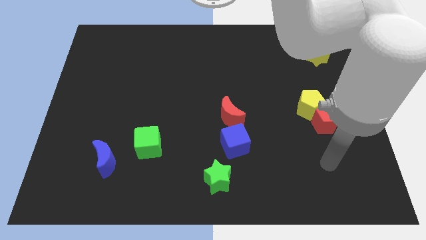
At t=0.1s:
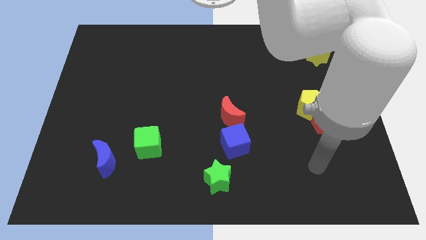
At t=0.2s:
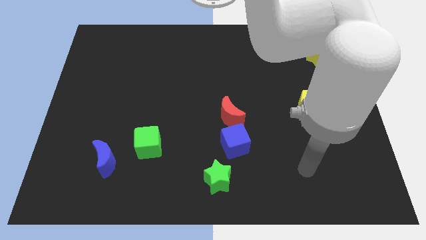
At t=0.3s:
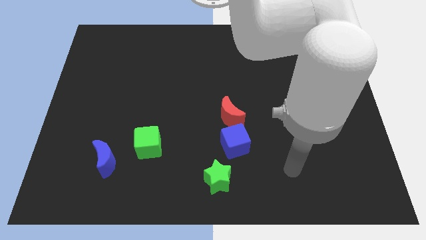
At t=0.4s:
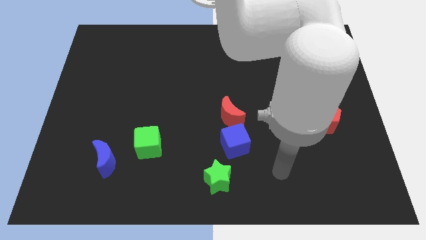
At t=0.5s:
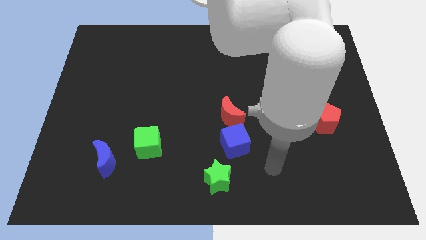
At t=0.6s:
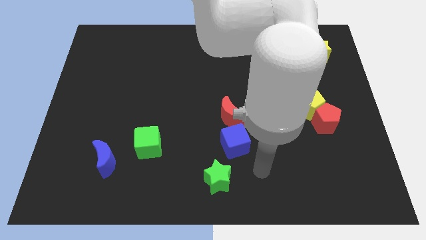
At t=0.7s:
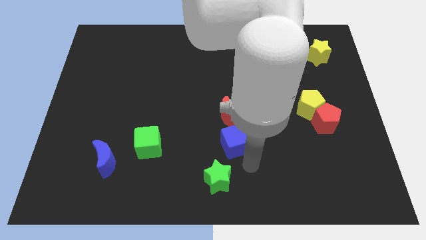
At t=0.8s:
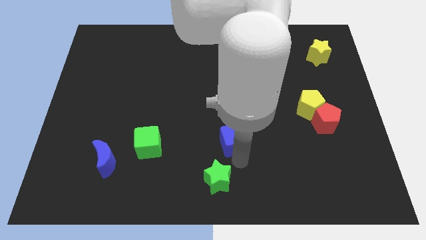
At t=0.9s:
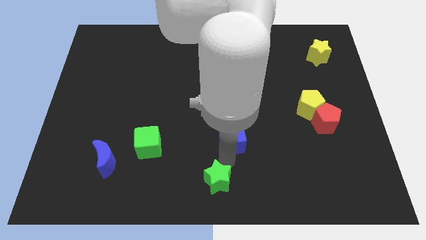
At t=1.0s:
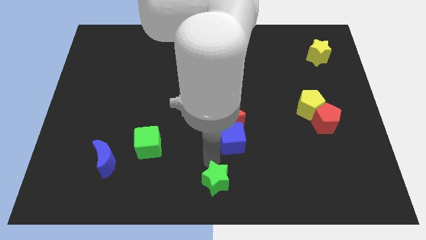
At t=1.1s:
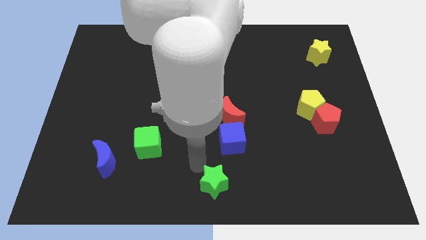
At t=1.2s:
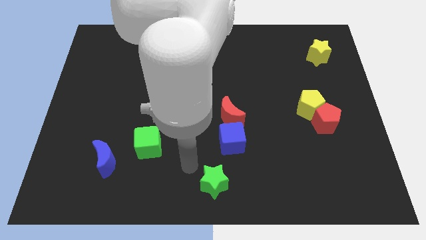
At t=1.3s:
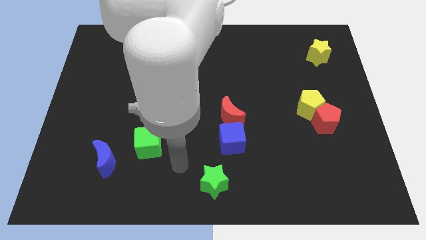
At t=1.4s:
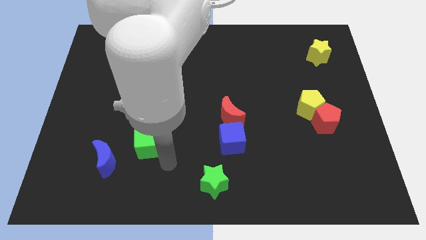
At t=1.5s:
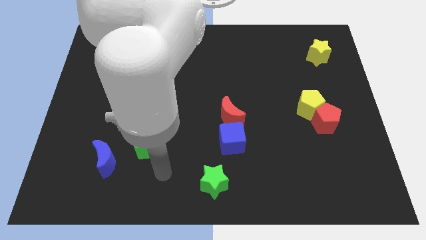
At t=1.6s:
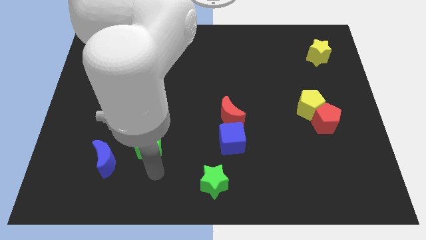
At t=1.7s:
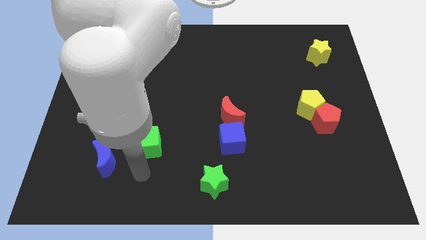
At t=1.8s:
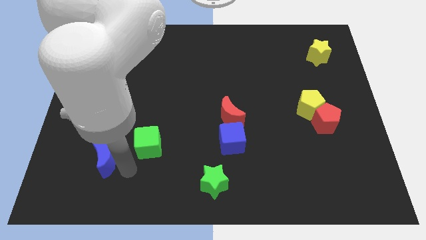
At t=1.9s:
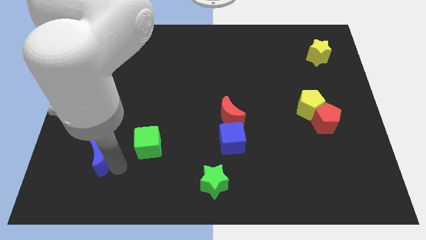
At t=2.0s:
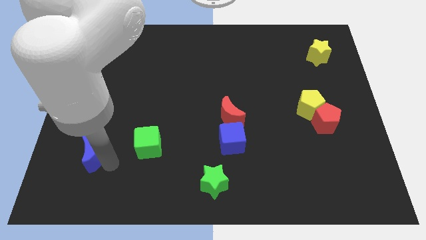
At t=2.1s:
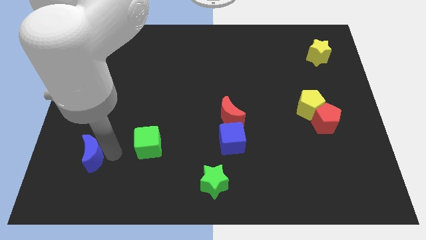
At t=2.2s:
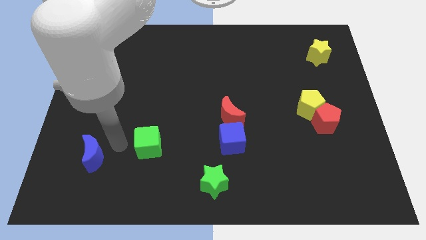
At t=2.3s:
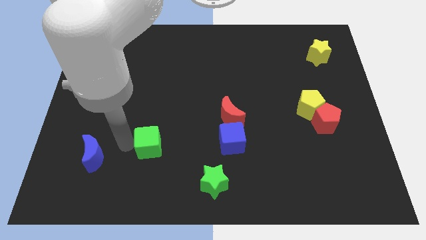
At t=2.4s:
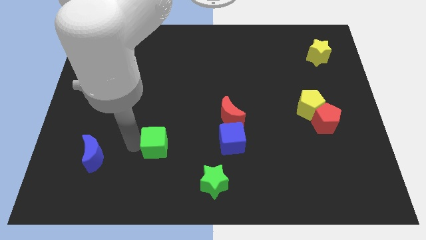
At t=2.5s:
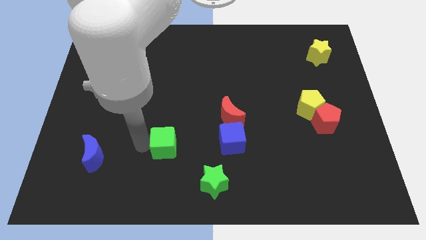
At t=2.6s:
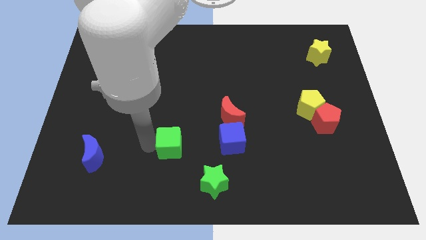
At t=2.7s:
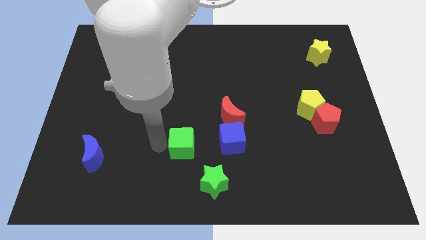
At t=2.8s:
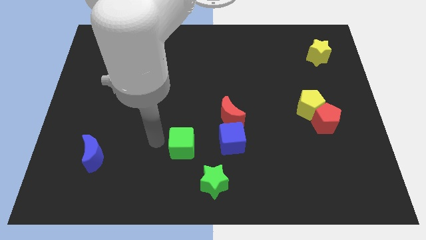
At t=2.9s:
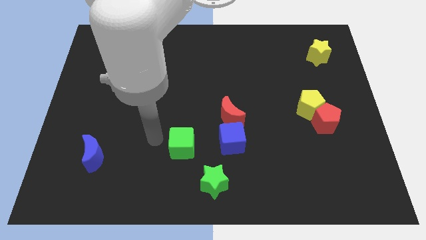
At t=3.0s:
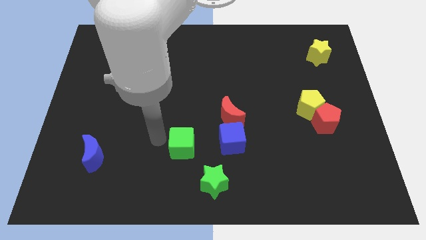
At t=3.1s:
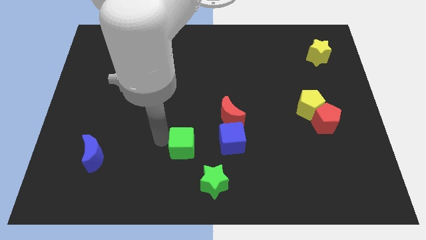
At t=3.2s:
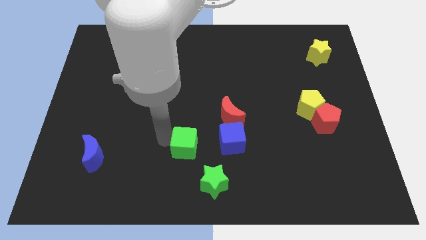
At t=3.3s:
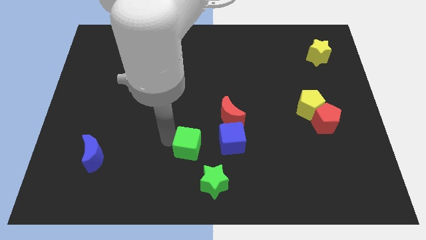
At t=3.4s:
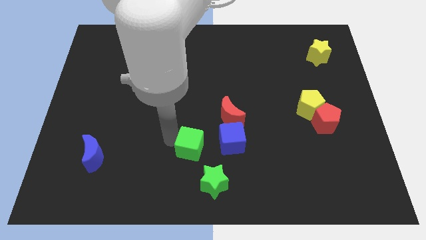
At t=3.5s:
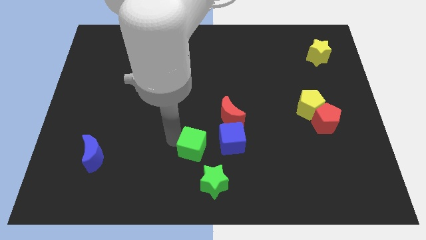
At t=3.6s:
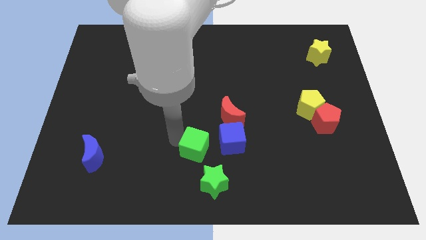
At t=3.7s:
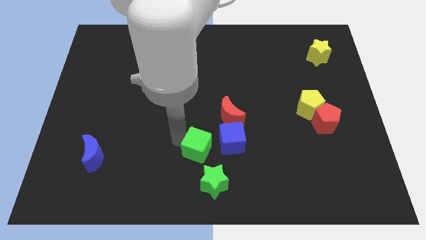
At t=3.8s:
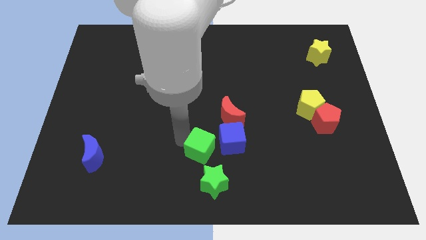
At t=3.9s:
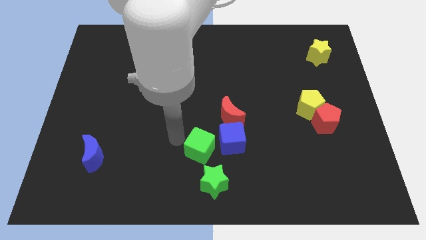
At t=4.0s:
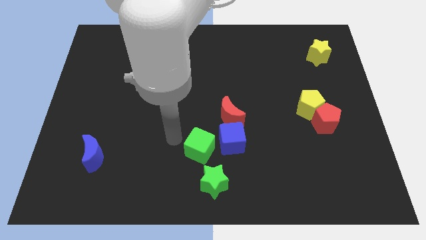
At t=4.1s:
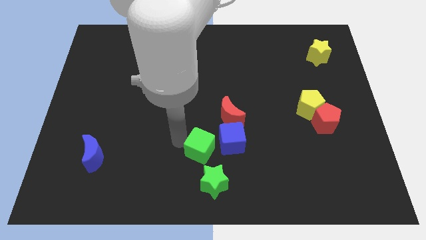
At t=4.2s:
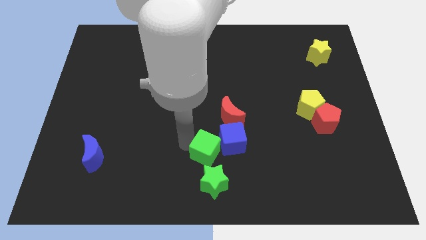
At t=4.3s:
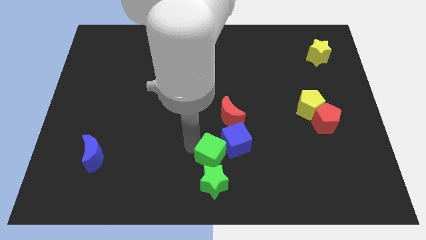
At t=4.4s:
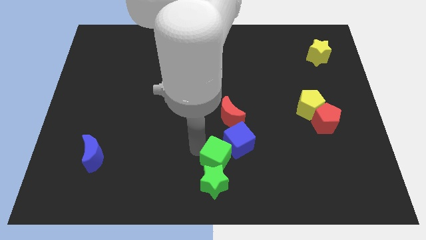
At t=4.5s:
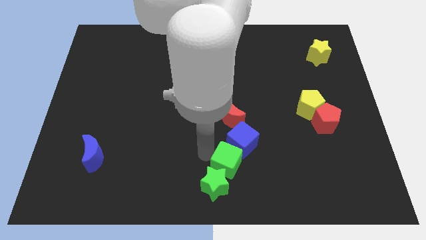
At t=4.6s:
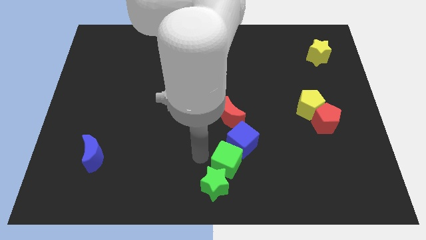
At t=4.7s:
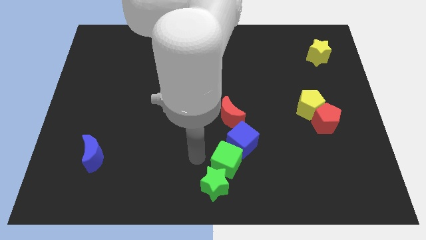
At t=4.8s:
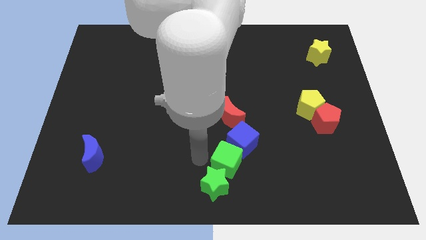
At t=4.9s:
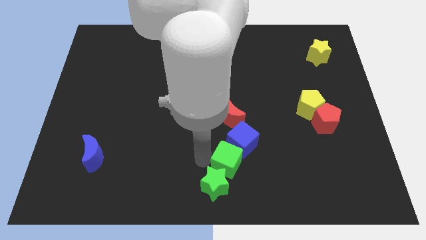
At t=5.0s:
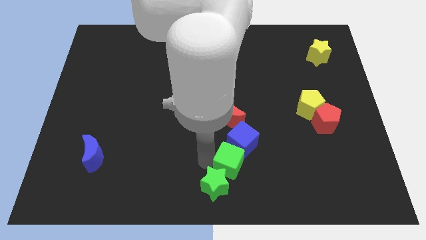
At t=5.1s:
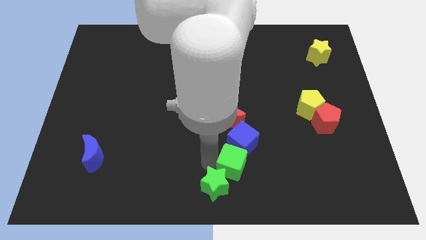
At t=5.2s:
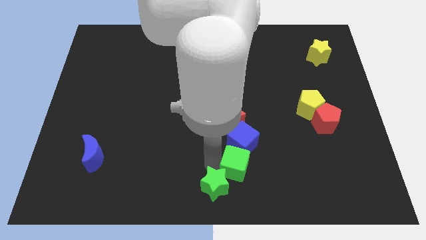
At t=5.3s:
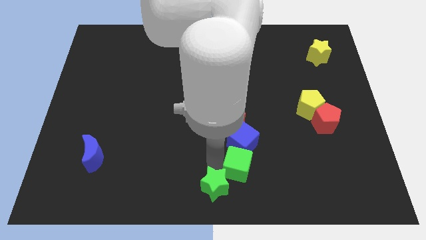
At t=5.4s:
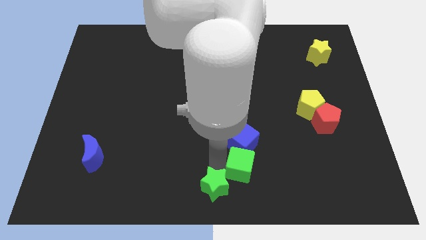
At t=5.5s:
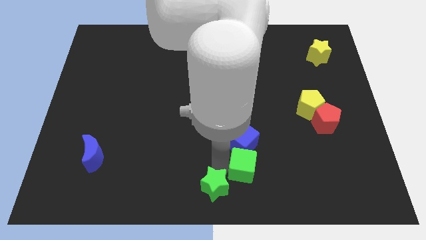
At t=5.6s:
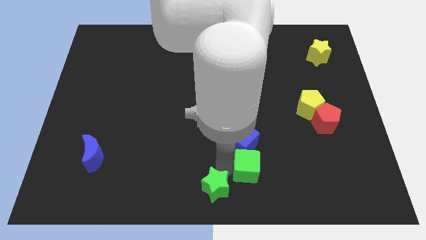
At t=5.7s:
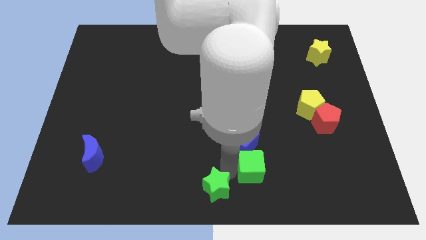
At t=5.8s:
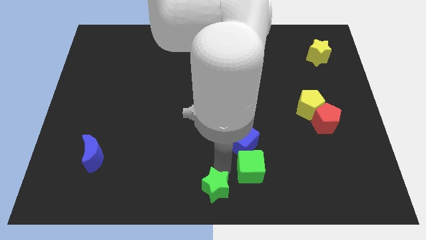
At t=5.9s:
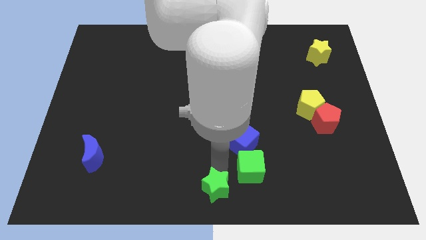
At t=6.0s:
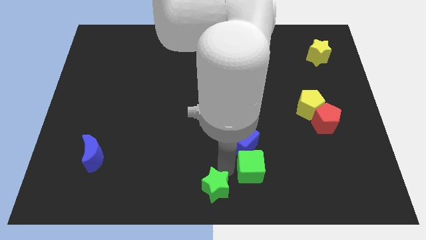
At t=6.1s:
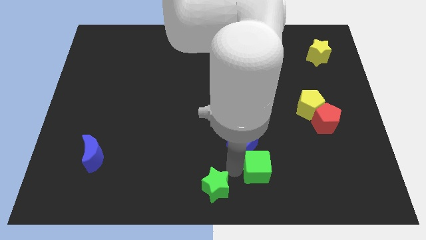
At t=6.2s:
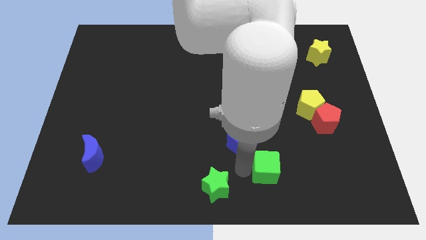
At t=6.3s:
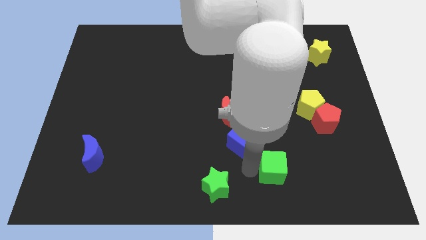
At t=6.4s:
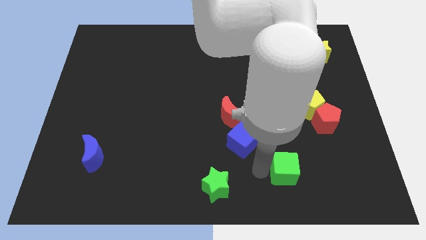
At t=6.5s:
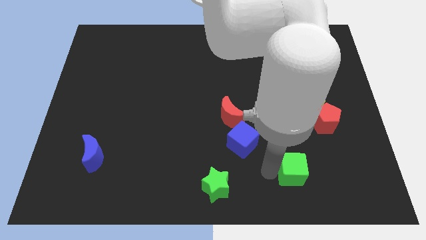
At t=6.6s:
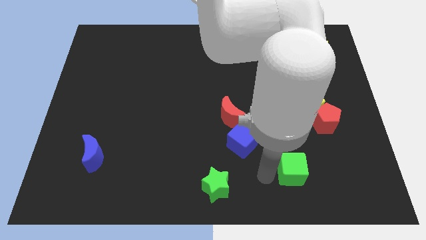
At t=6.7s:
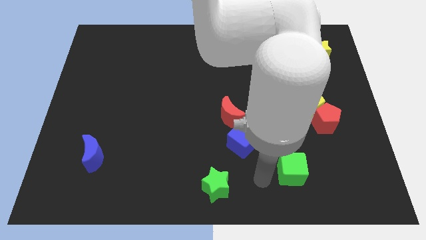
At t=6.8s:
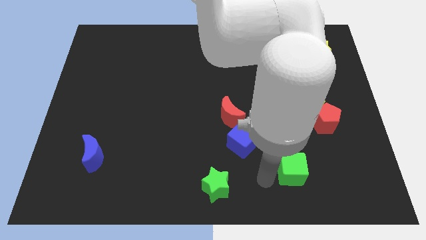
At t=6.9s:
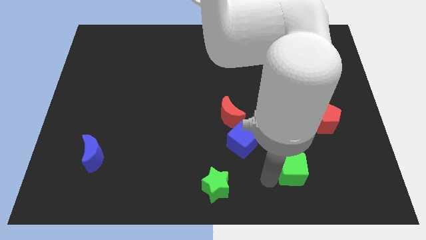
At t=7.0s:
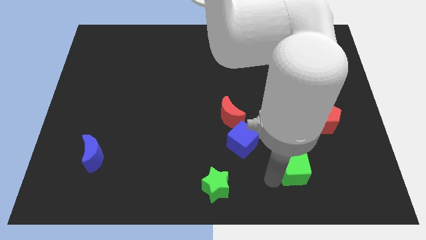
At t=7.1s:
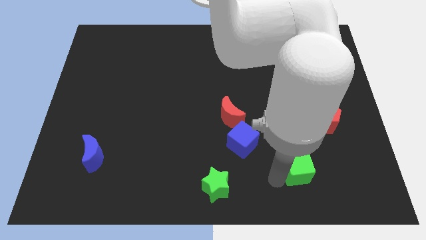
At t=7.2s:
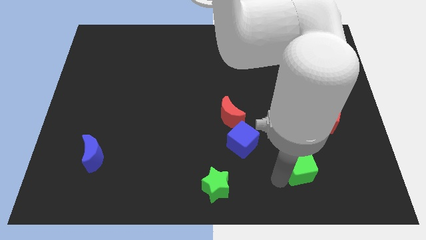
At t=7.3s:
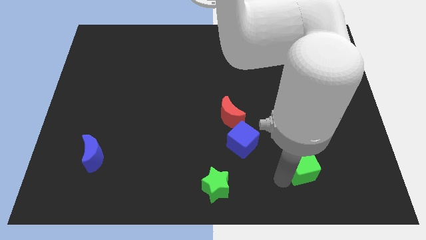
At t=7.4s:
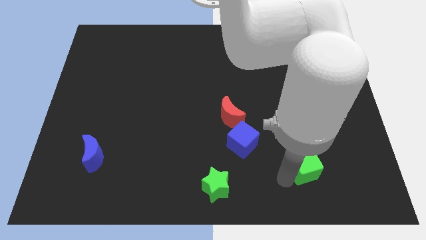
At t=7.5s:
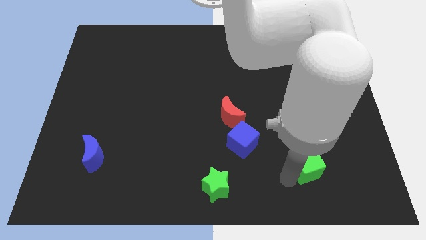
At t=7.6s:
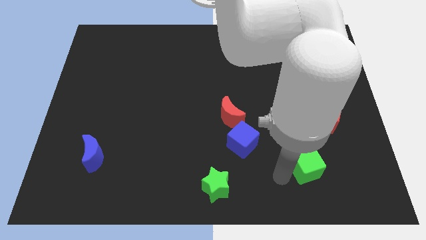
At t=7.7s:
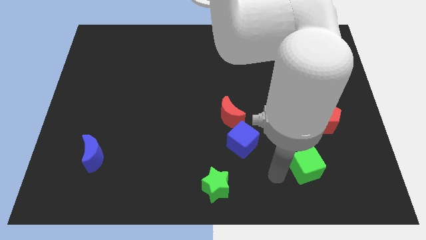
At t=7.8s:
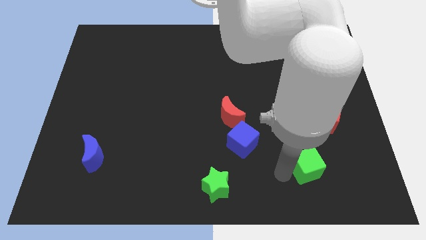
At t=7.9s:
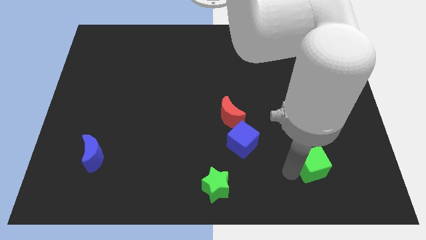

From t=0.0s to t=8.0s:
put the green cube to the bottom side of the red pentagon
